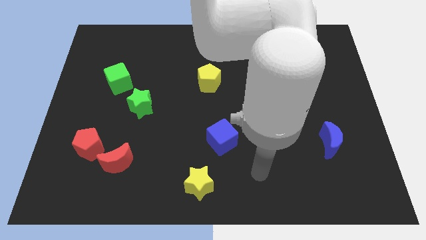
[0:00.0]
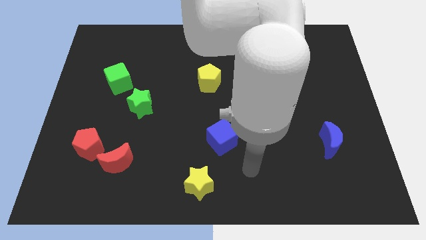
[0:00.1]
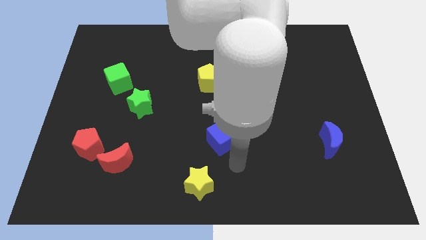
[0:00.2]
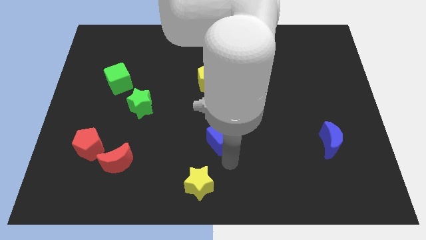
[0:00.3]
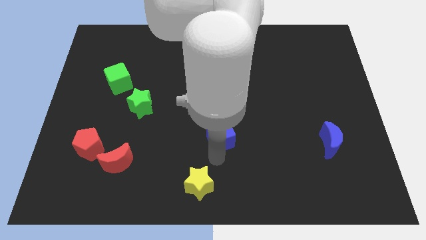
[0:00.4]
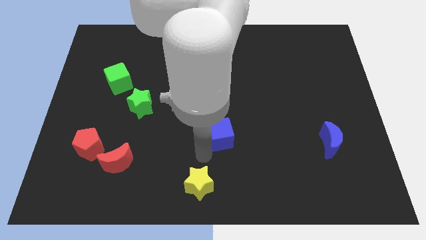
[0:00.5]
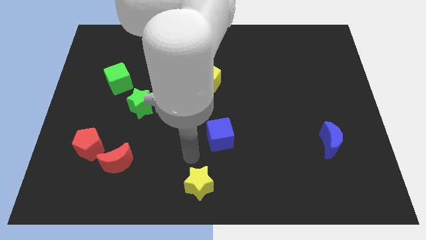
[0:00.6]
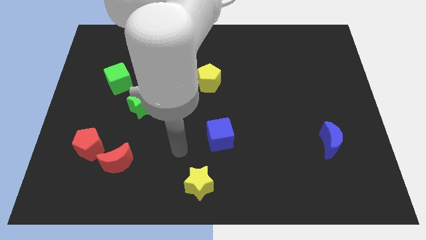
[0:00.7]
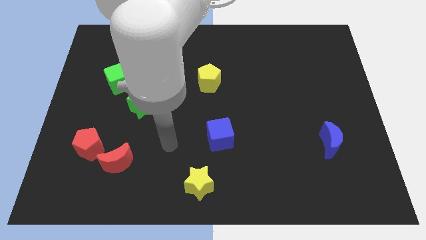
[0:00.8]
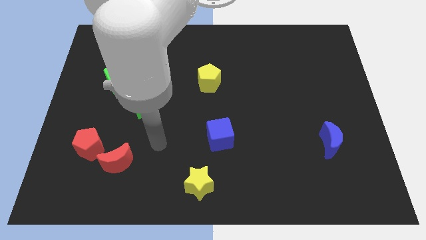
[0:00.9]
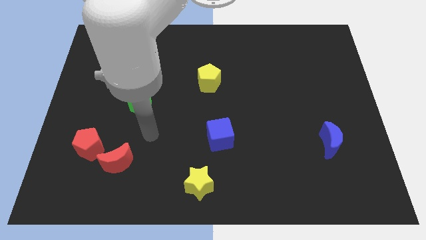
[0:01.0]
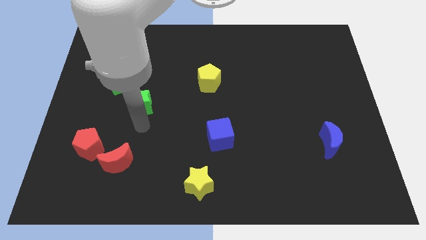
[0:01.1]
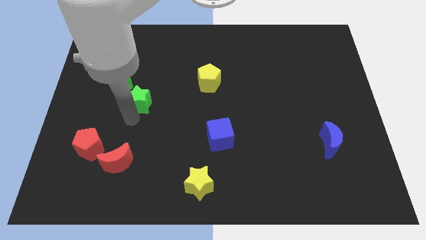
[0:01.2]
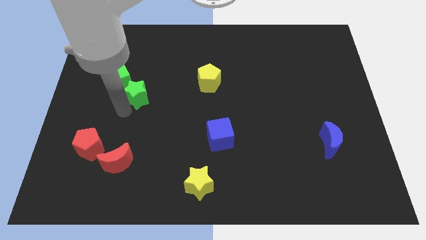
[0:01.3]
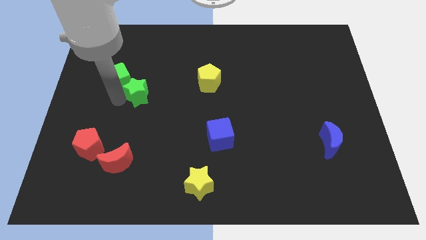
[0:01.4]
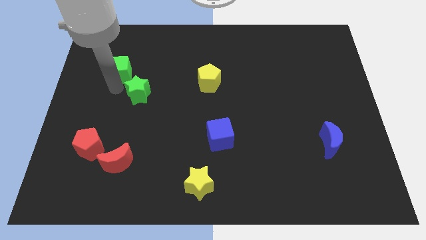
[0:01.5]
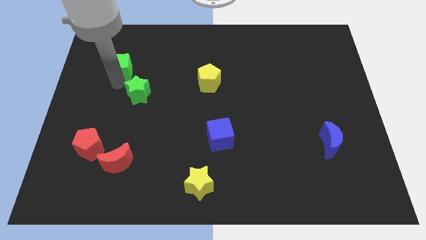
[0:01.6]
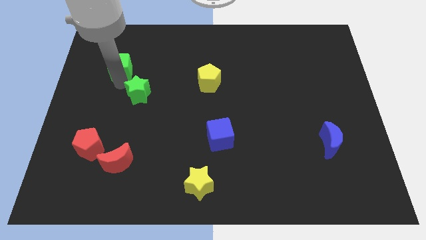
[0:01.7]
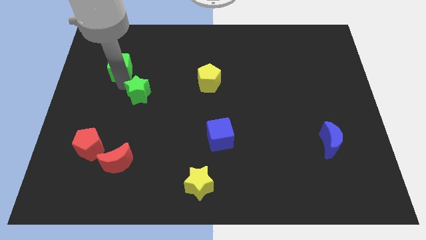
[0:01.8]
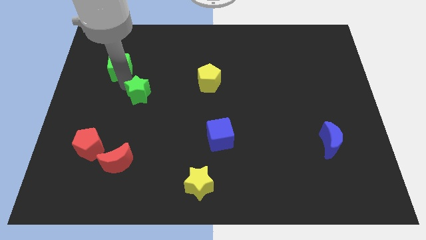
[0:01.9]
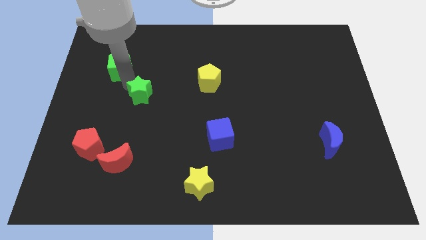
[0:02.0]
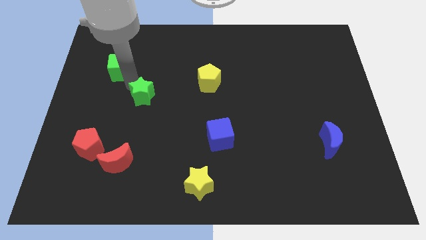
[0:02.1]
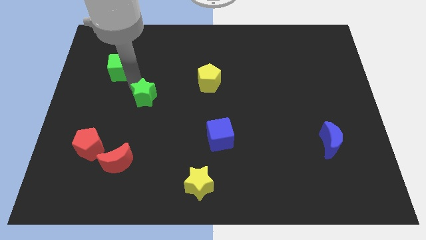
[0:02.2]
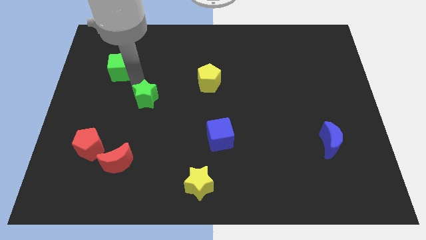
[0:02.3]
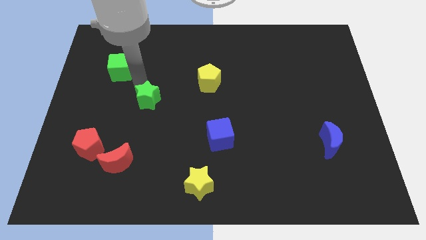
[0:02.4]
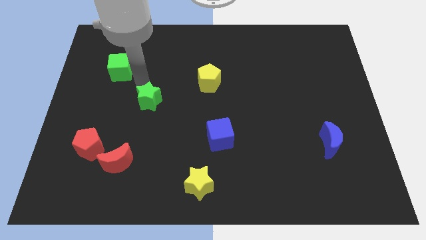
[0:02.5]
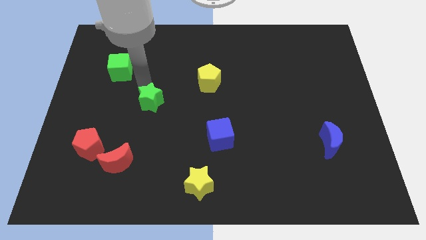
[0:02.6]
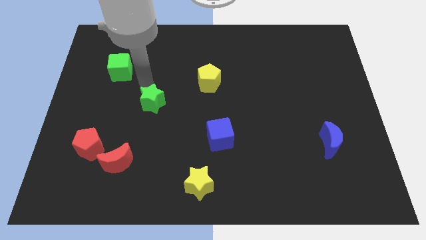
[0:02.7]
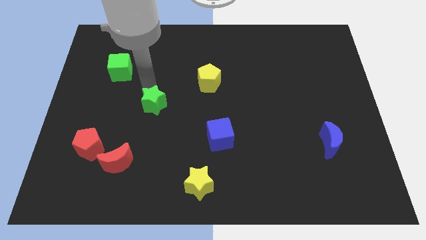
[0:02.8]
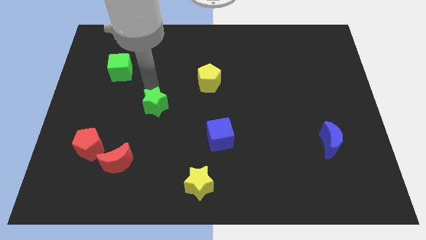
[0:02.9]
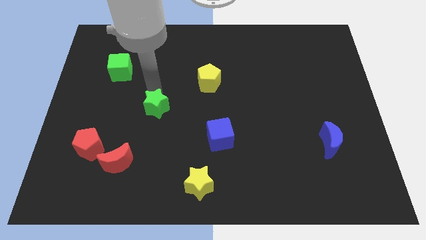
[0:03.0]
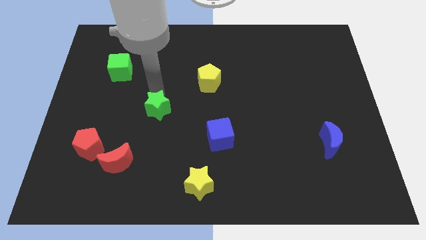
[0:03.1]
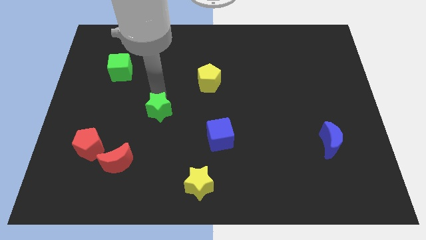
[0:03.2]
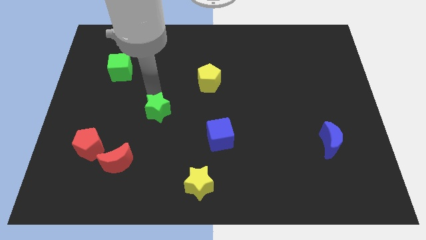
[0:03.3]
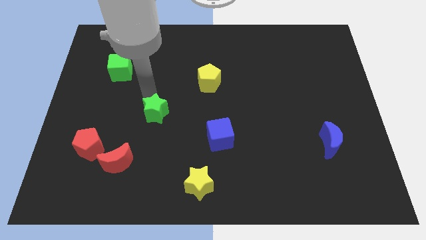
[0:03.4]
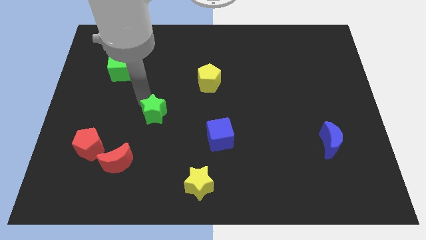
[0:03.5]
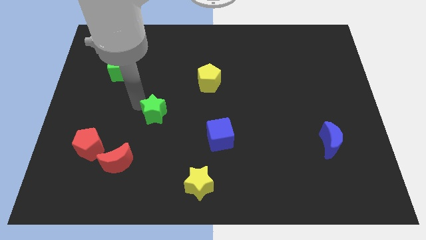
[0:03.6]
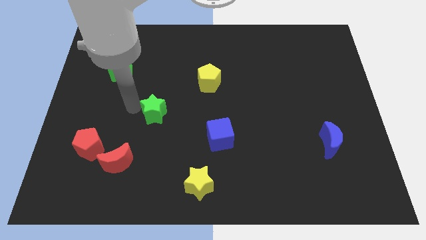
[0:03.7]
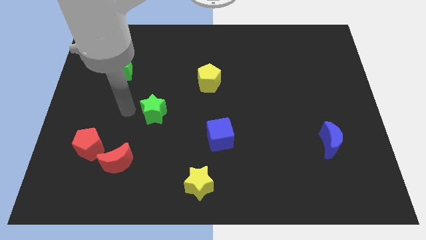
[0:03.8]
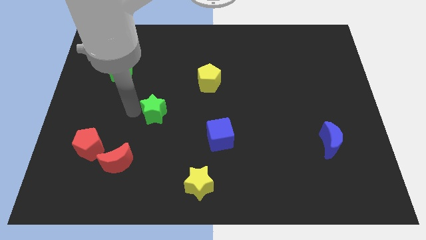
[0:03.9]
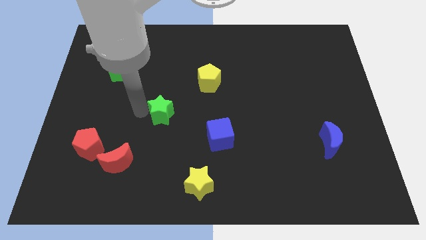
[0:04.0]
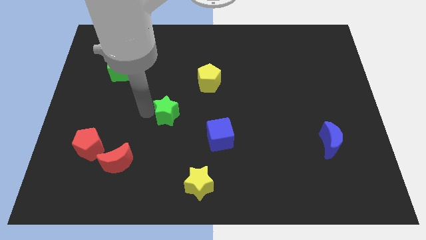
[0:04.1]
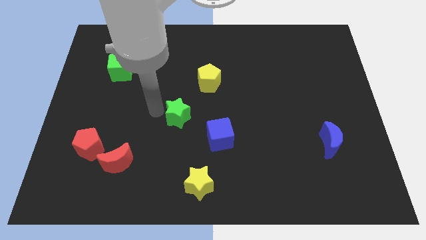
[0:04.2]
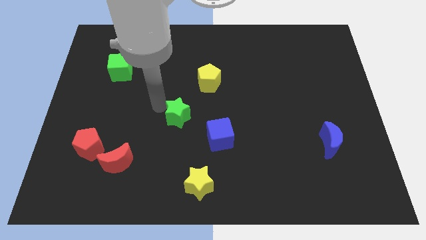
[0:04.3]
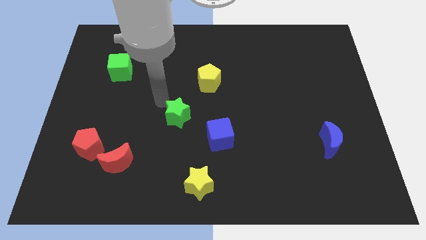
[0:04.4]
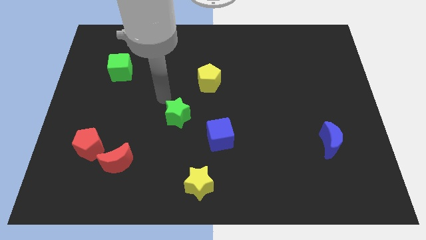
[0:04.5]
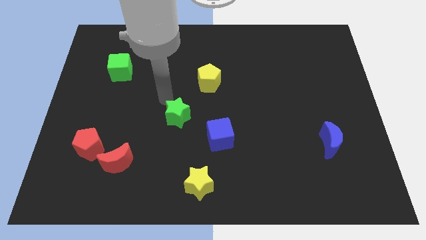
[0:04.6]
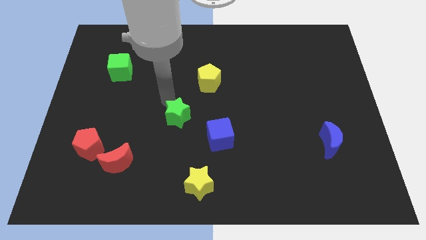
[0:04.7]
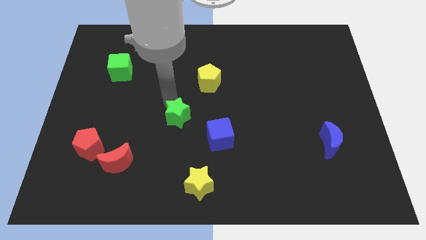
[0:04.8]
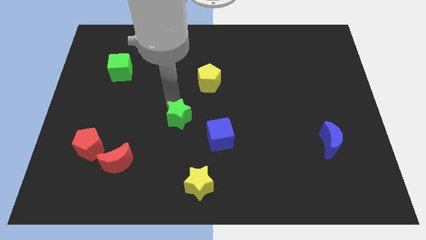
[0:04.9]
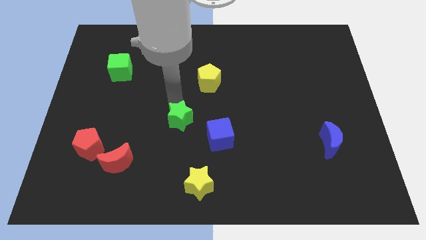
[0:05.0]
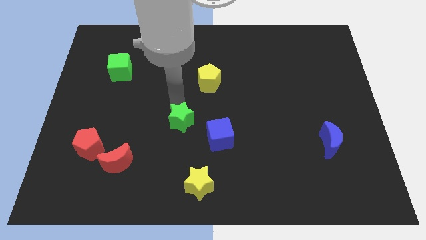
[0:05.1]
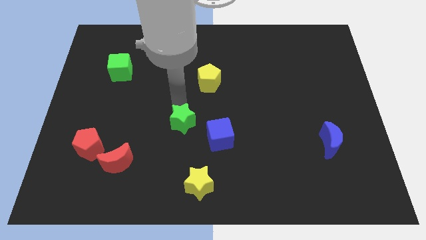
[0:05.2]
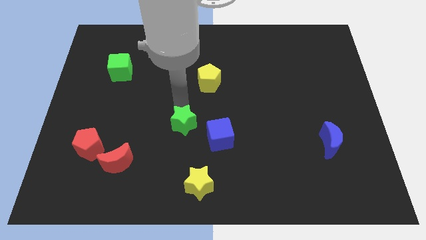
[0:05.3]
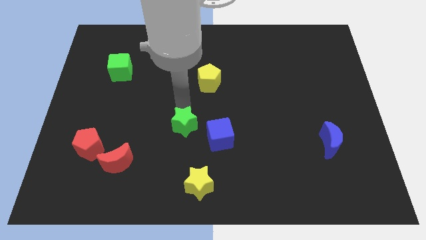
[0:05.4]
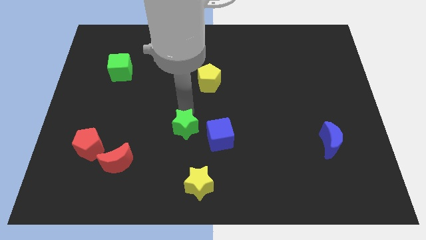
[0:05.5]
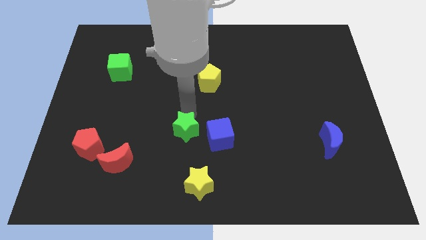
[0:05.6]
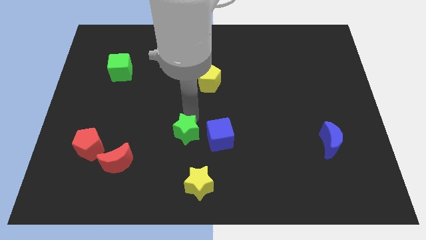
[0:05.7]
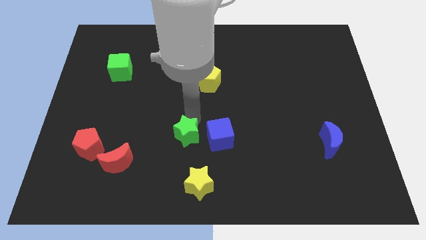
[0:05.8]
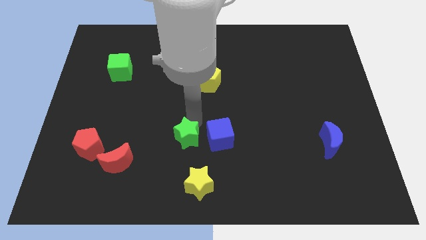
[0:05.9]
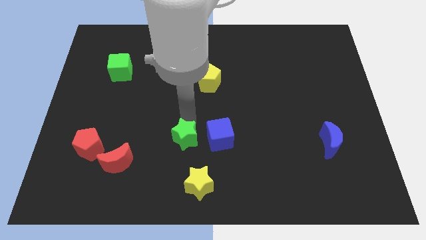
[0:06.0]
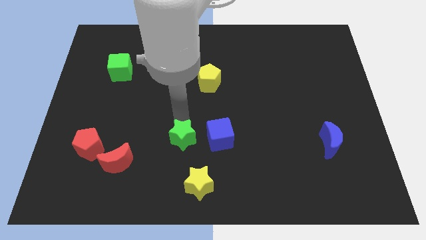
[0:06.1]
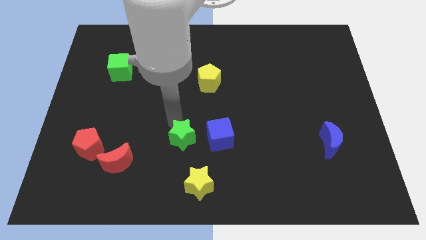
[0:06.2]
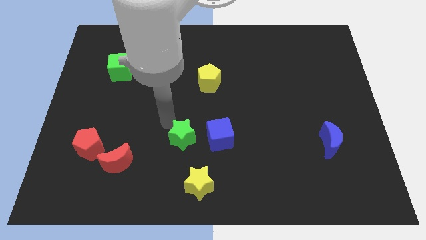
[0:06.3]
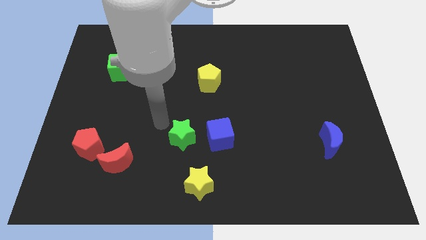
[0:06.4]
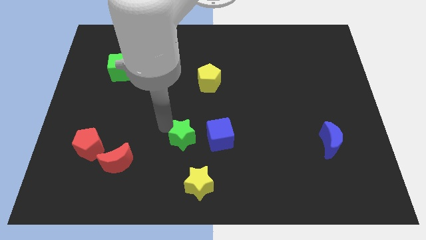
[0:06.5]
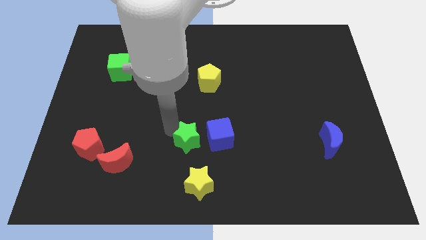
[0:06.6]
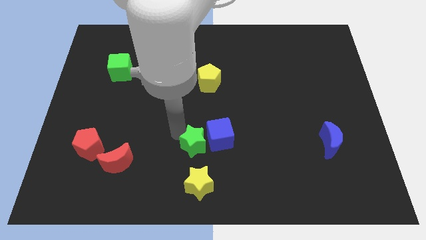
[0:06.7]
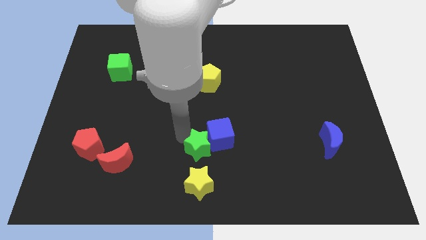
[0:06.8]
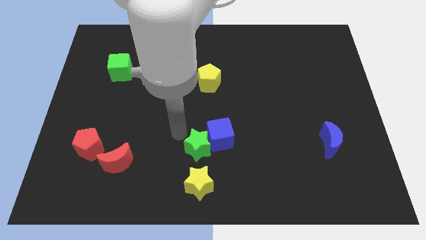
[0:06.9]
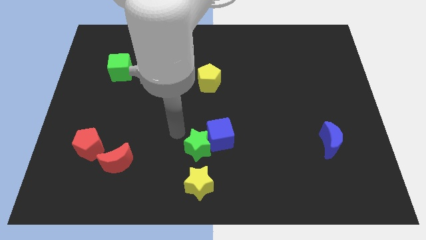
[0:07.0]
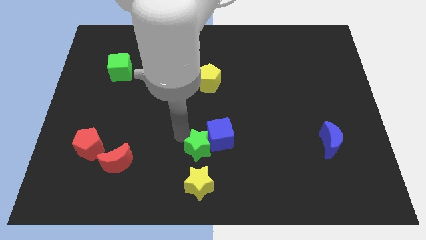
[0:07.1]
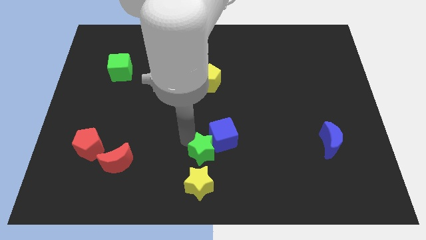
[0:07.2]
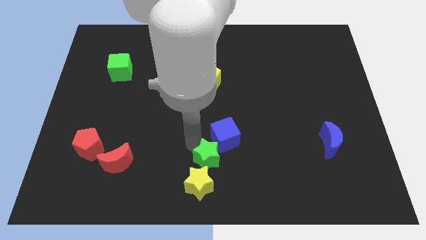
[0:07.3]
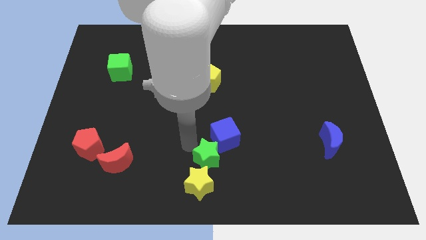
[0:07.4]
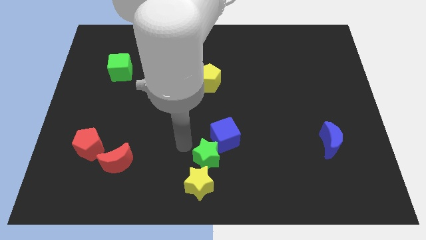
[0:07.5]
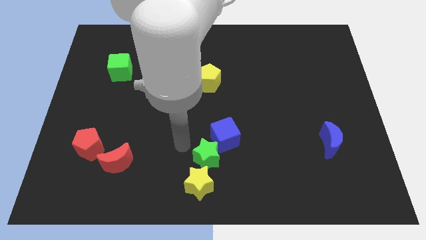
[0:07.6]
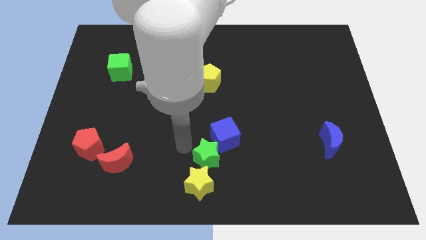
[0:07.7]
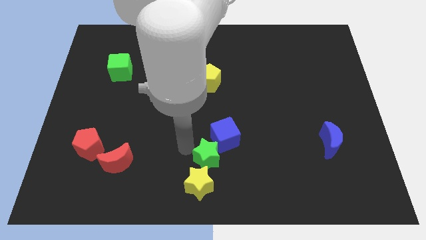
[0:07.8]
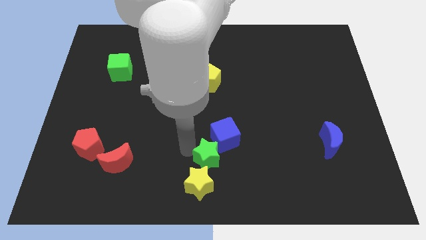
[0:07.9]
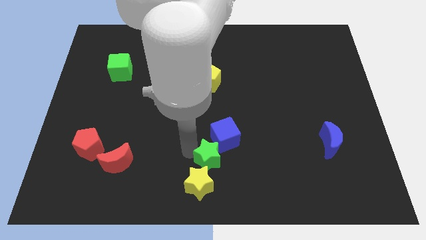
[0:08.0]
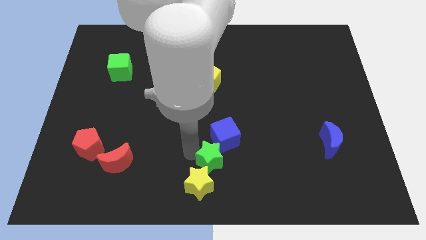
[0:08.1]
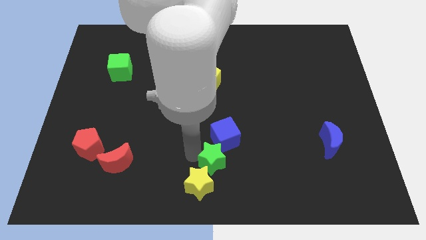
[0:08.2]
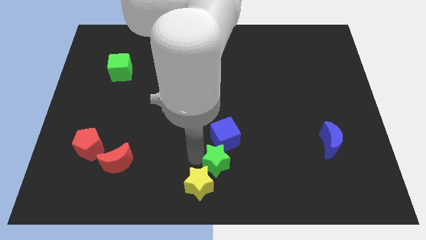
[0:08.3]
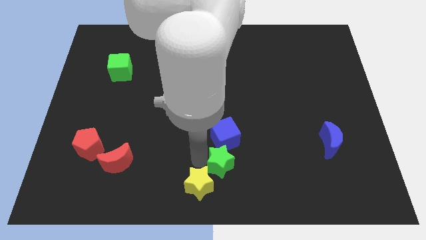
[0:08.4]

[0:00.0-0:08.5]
put the green star to the right side of the yellow star

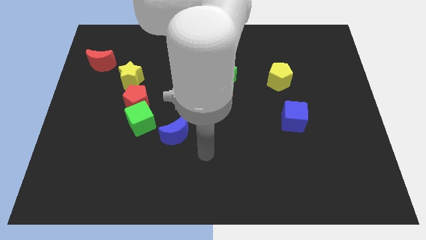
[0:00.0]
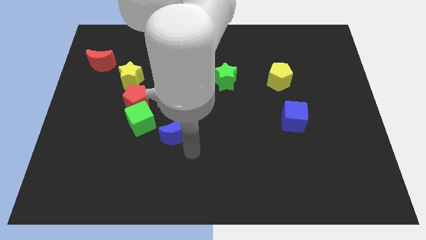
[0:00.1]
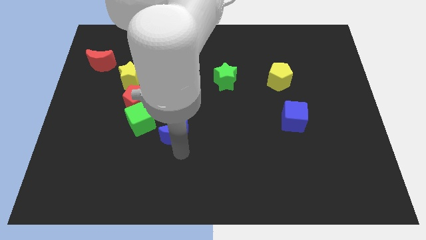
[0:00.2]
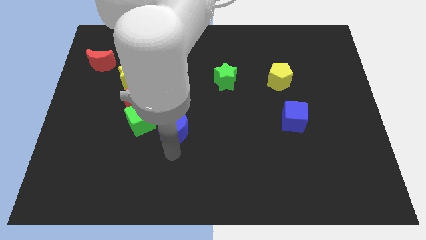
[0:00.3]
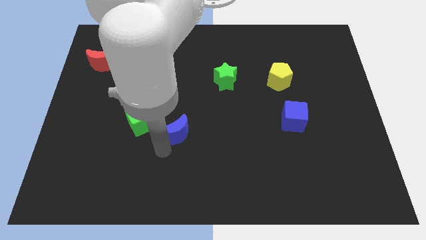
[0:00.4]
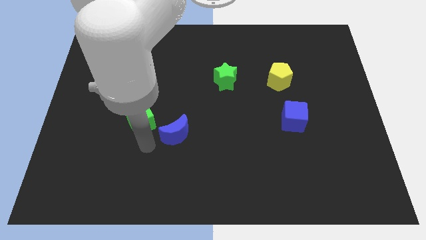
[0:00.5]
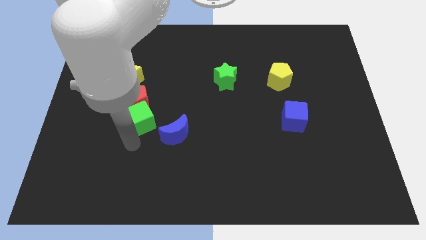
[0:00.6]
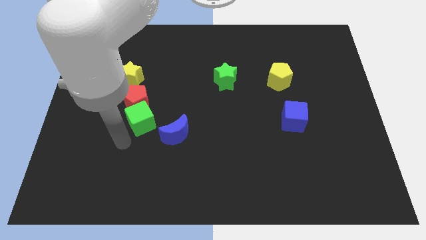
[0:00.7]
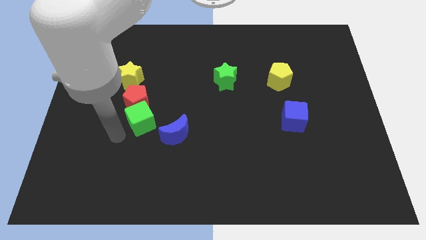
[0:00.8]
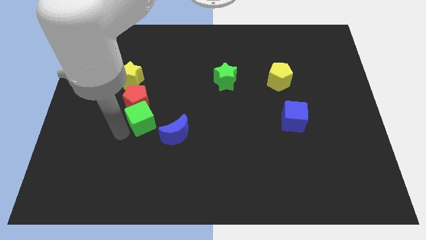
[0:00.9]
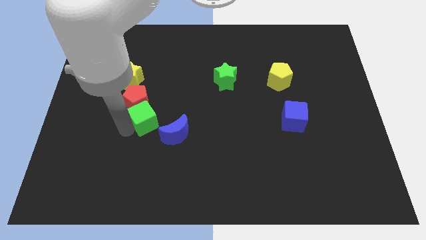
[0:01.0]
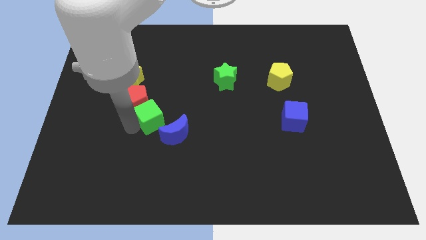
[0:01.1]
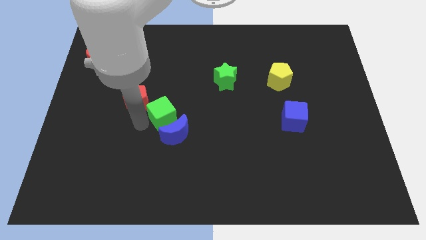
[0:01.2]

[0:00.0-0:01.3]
move the green cube to the right of the red pentagon
